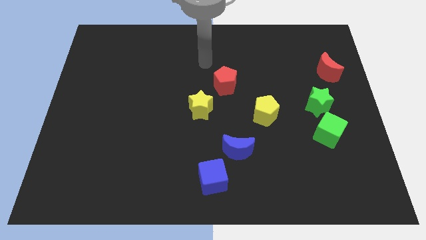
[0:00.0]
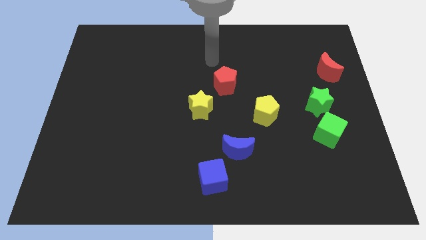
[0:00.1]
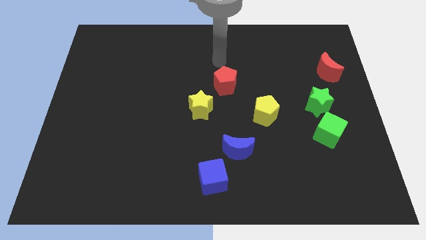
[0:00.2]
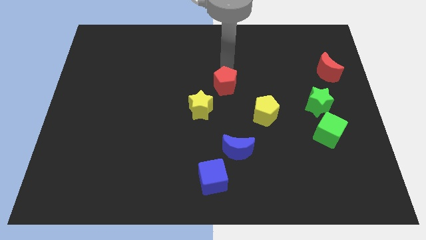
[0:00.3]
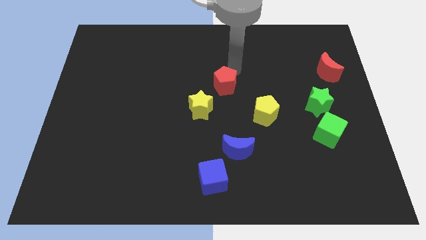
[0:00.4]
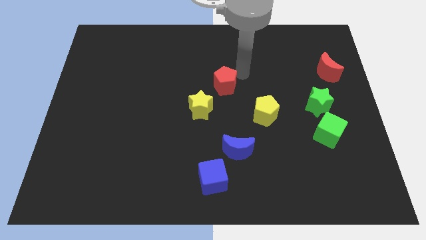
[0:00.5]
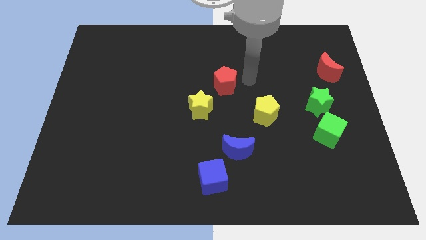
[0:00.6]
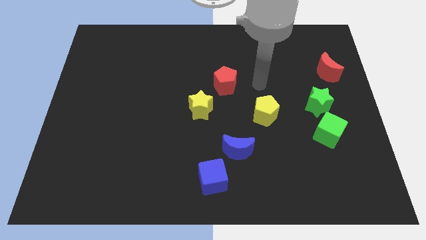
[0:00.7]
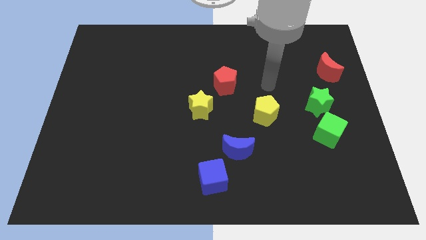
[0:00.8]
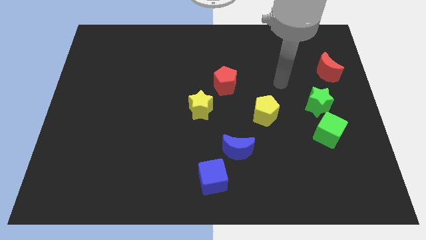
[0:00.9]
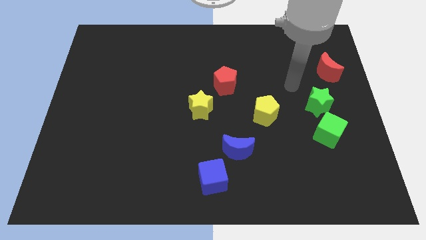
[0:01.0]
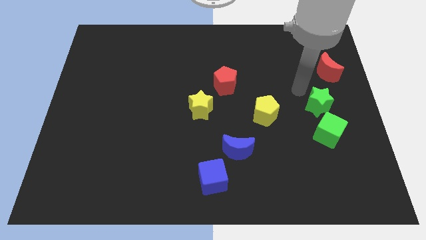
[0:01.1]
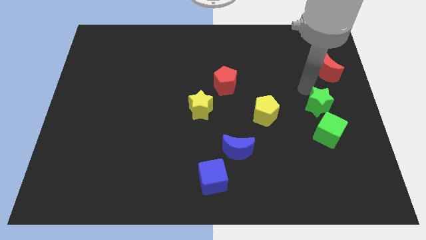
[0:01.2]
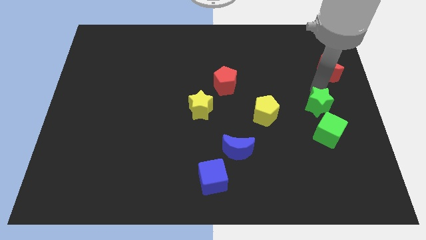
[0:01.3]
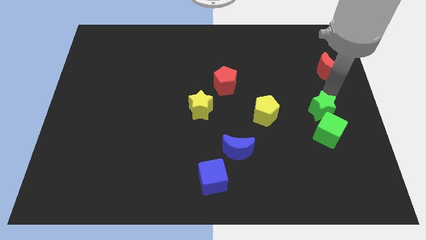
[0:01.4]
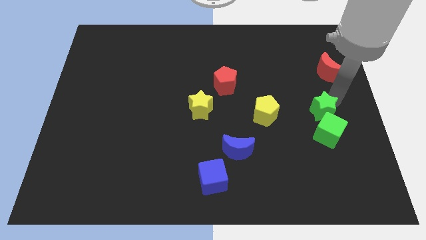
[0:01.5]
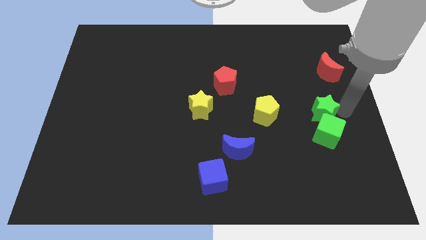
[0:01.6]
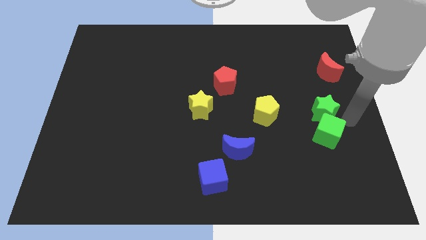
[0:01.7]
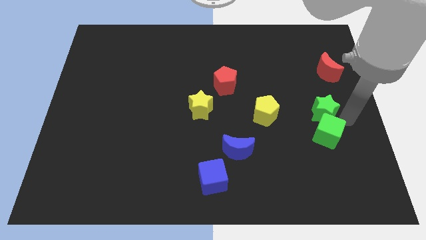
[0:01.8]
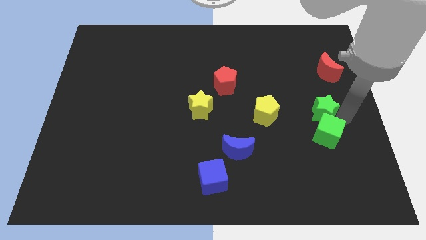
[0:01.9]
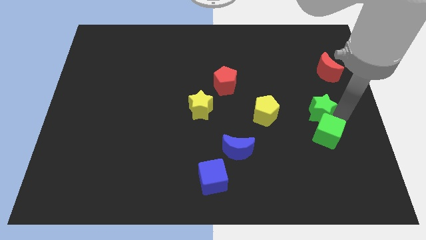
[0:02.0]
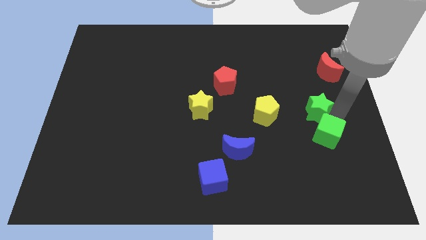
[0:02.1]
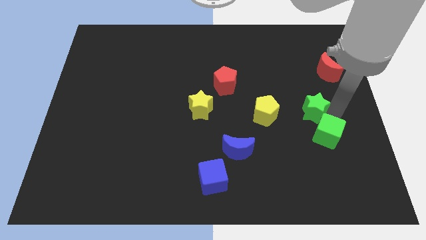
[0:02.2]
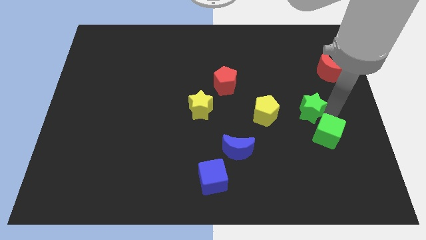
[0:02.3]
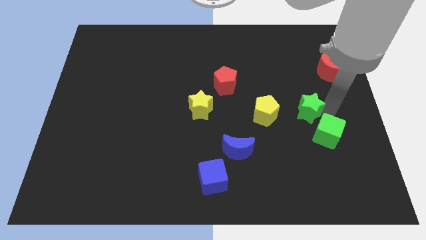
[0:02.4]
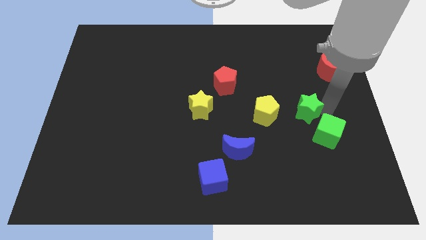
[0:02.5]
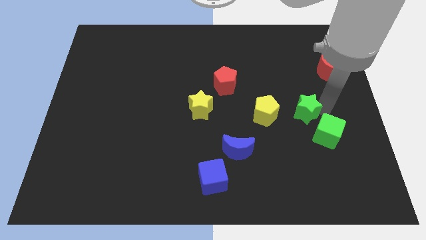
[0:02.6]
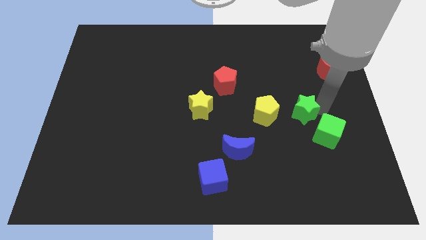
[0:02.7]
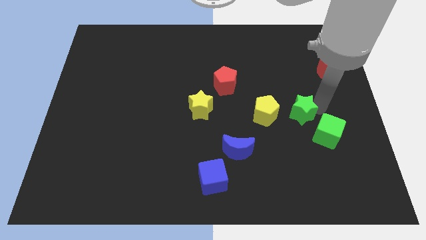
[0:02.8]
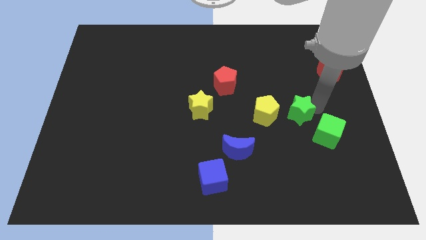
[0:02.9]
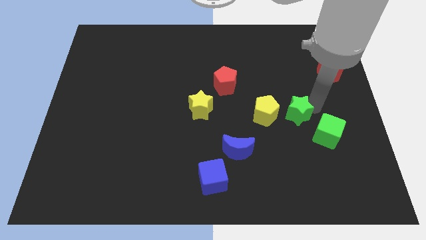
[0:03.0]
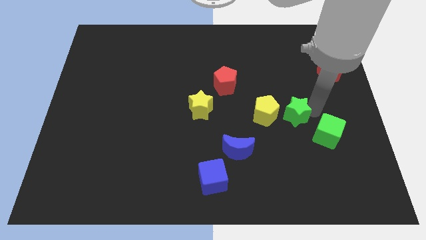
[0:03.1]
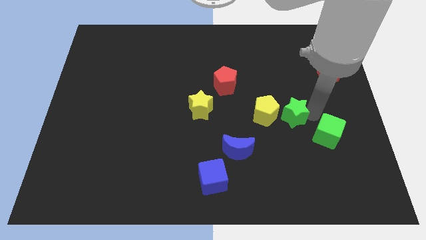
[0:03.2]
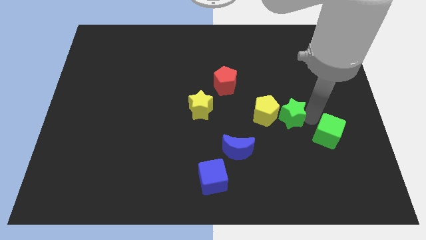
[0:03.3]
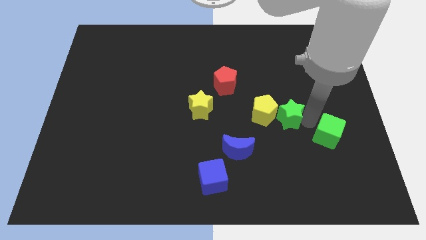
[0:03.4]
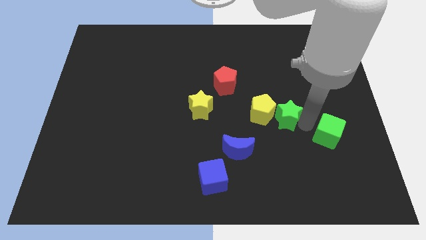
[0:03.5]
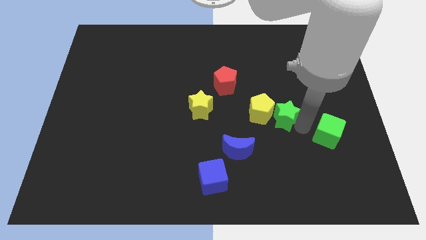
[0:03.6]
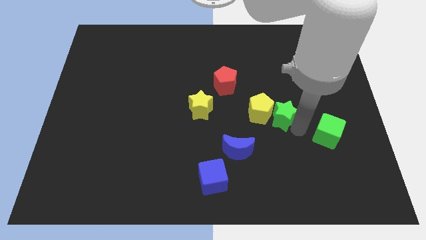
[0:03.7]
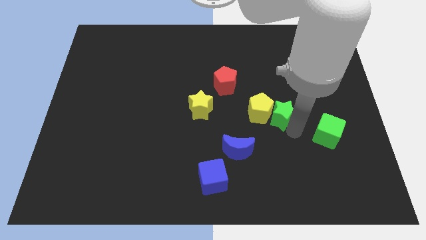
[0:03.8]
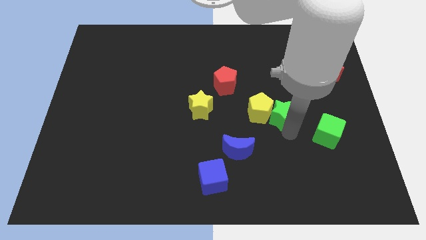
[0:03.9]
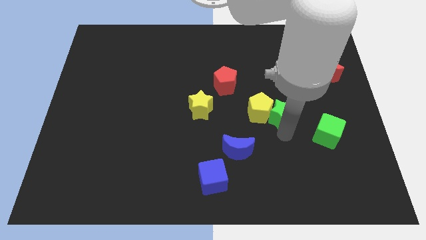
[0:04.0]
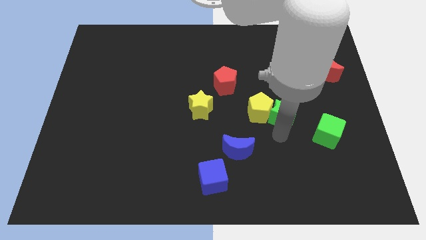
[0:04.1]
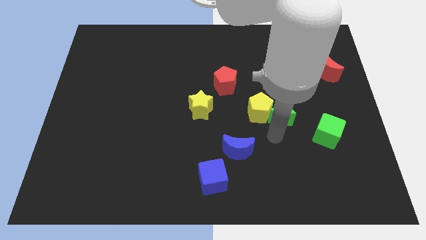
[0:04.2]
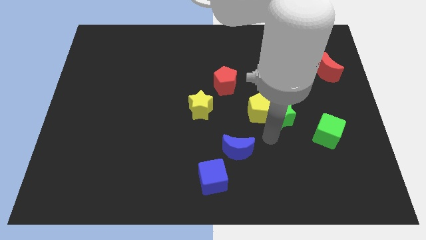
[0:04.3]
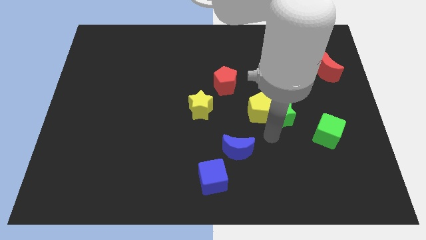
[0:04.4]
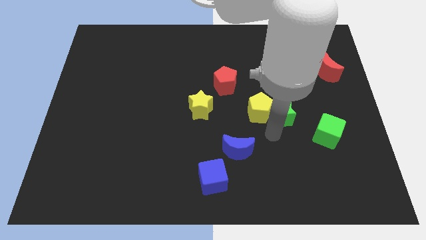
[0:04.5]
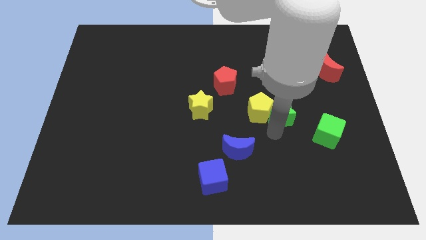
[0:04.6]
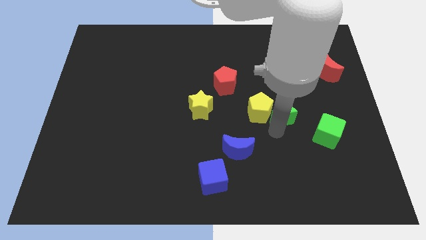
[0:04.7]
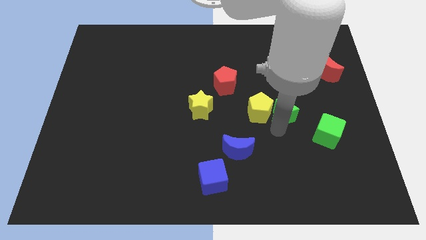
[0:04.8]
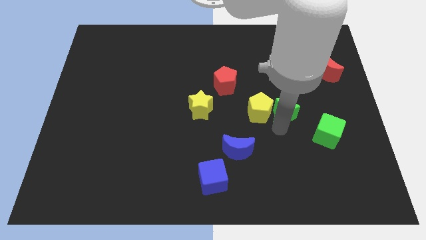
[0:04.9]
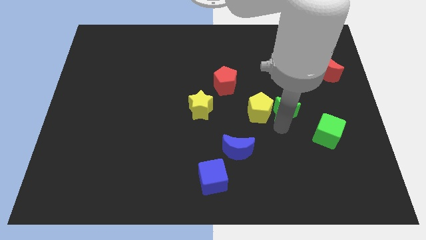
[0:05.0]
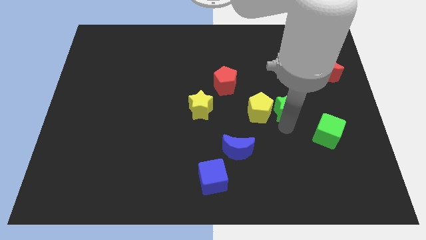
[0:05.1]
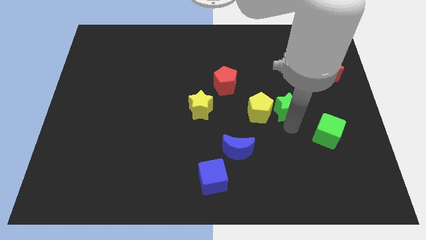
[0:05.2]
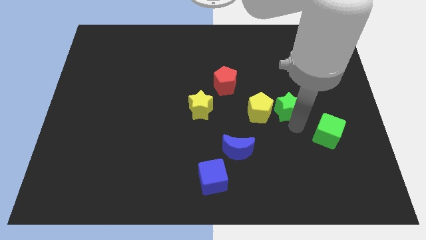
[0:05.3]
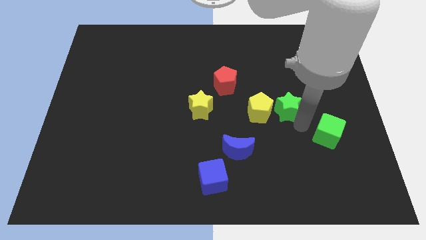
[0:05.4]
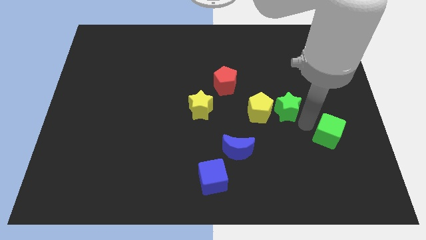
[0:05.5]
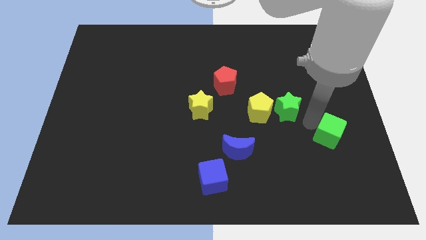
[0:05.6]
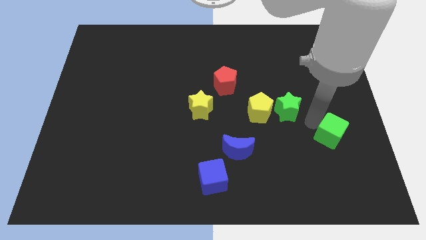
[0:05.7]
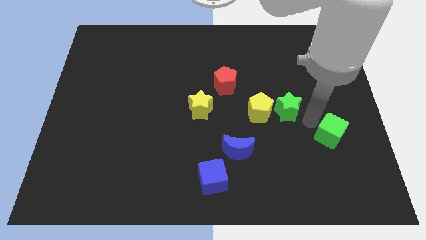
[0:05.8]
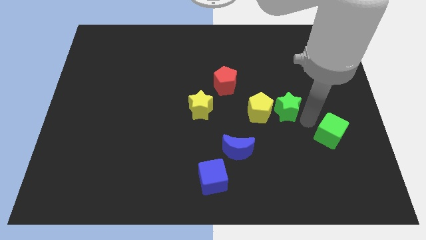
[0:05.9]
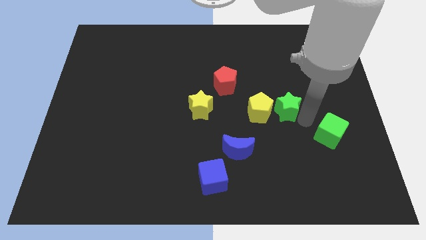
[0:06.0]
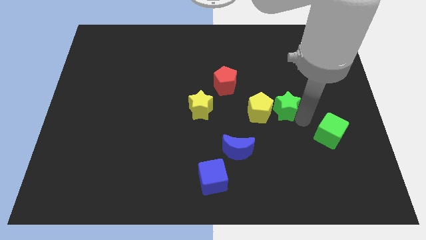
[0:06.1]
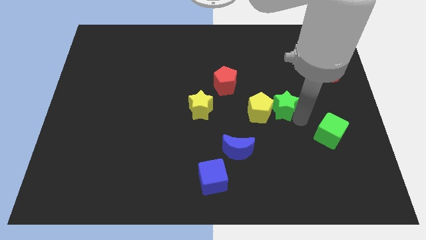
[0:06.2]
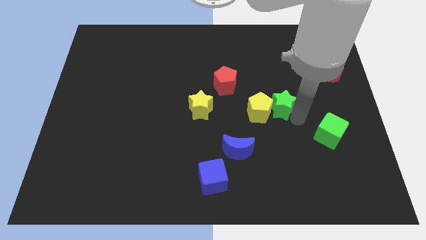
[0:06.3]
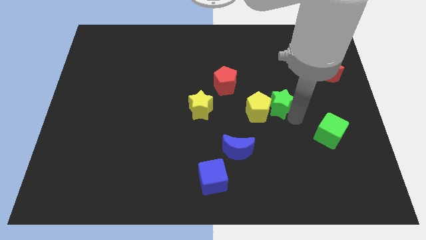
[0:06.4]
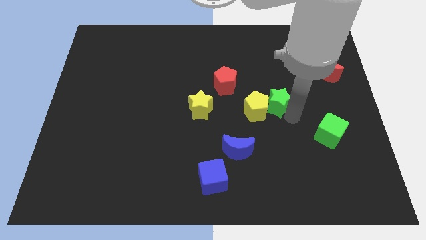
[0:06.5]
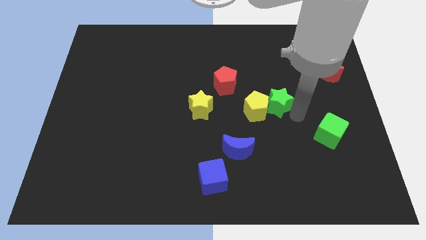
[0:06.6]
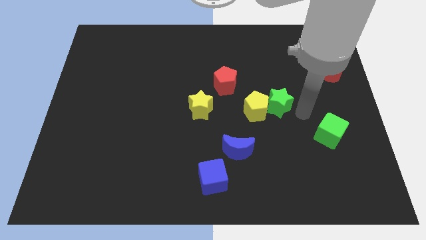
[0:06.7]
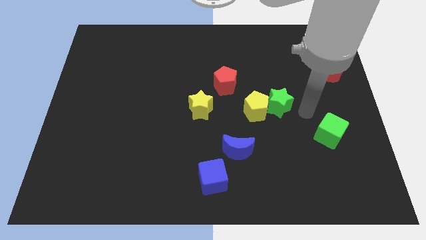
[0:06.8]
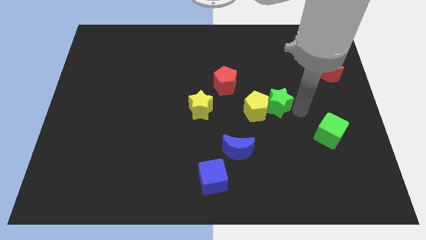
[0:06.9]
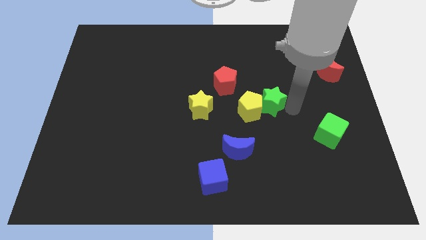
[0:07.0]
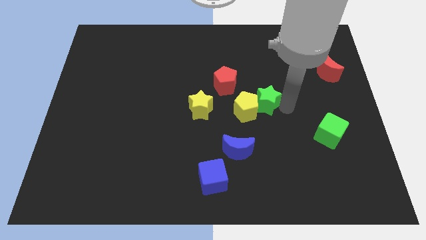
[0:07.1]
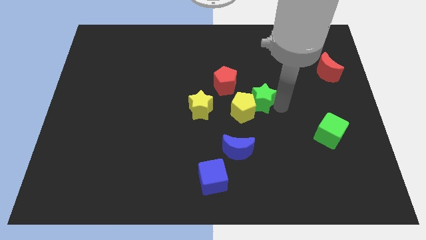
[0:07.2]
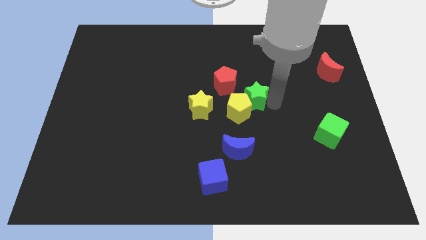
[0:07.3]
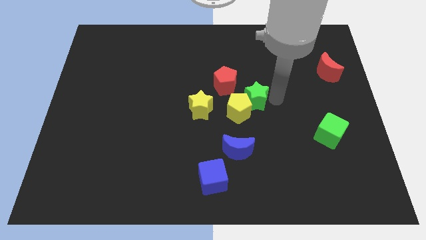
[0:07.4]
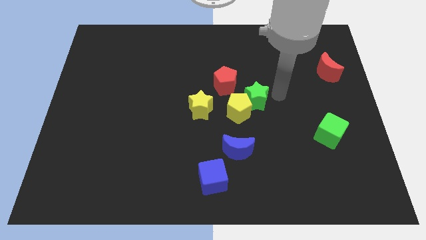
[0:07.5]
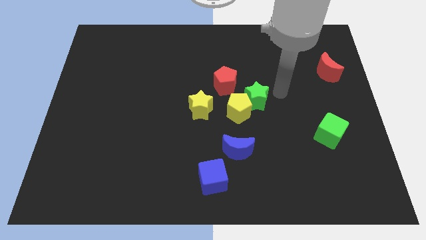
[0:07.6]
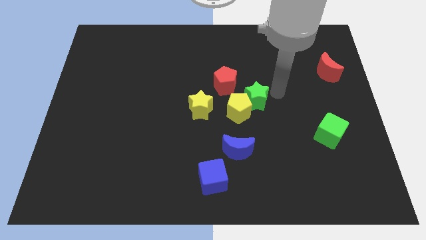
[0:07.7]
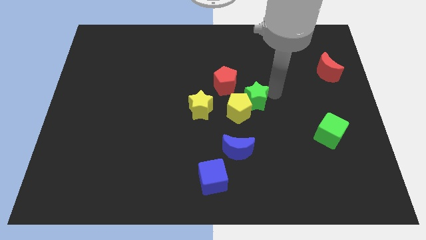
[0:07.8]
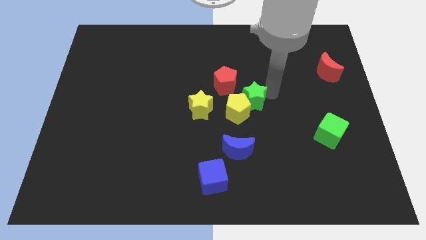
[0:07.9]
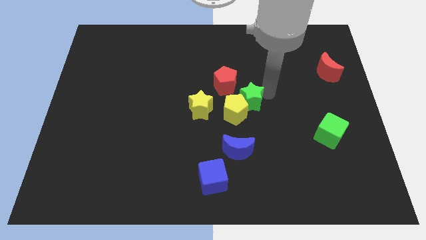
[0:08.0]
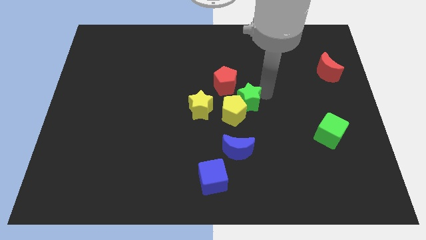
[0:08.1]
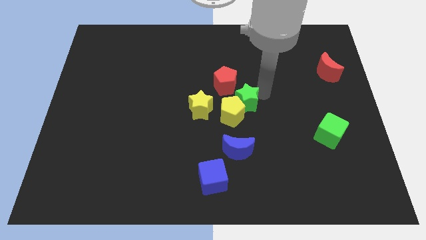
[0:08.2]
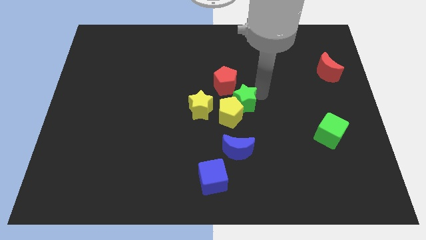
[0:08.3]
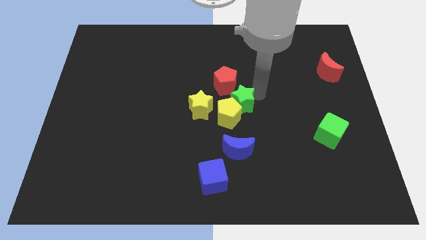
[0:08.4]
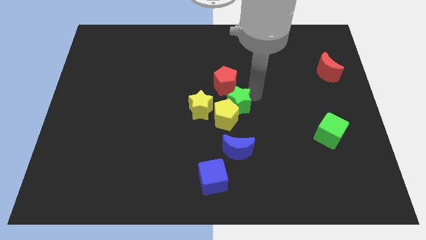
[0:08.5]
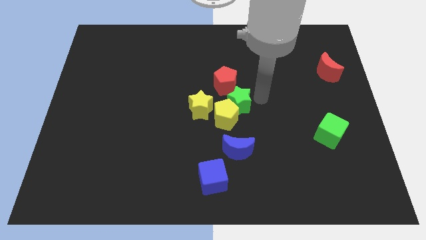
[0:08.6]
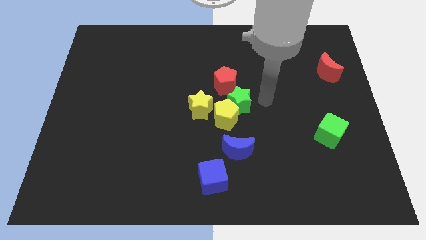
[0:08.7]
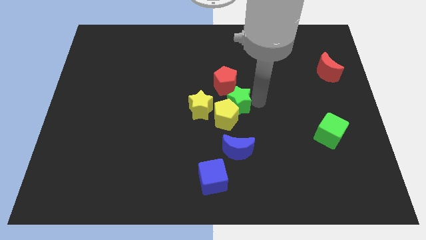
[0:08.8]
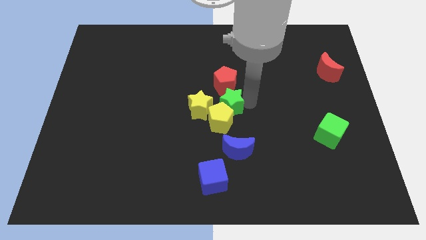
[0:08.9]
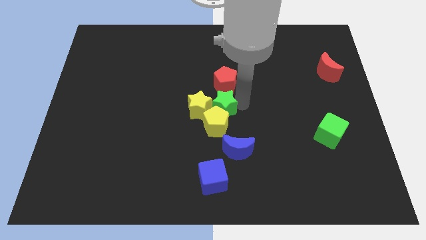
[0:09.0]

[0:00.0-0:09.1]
put the green star next to the yellow star
